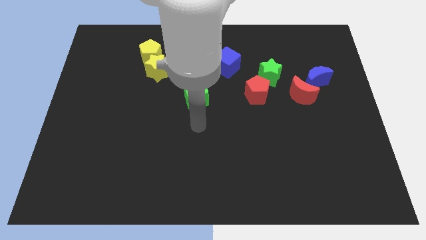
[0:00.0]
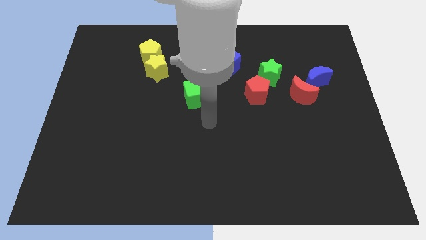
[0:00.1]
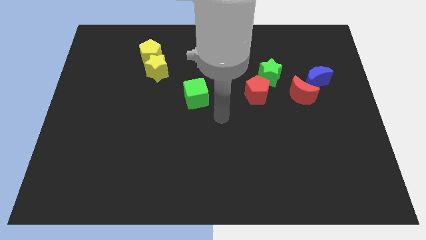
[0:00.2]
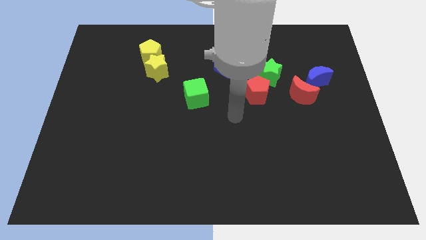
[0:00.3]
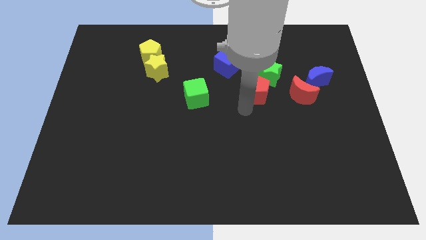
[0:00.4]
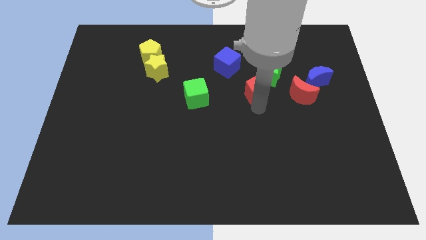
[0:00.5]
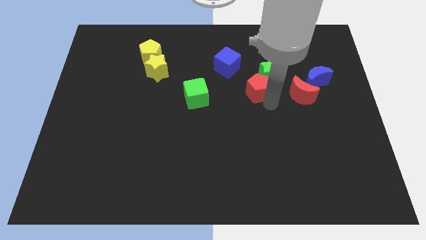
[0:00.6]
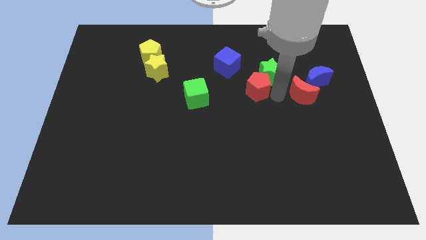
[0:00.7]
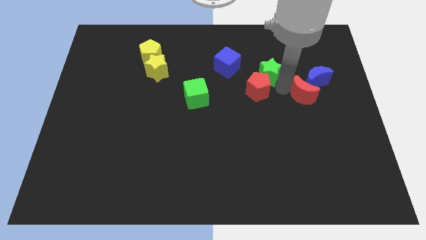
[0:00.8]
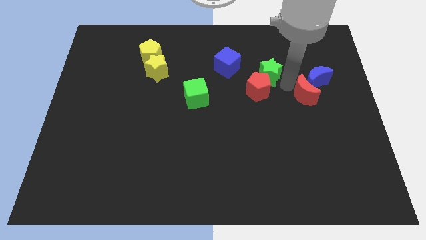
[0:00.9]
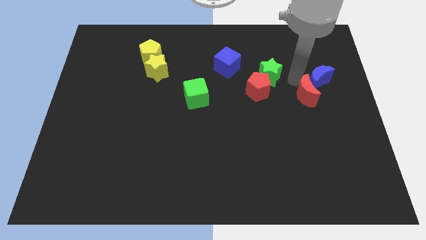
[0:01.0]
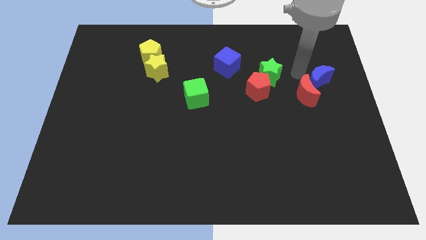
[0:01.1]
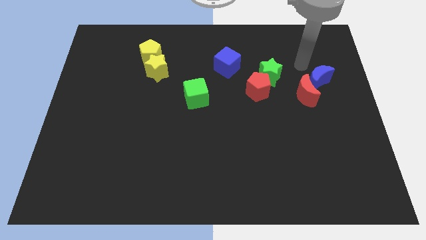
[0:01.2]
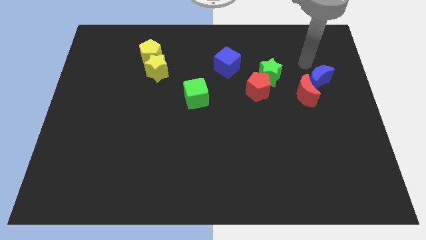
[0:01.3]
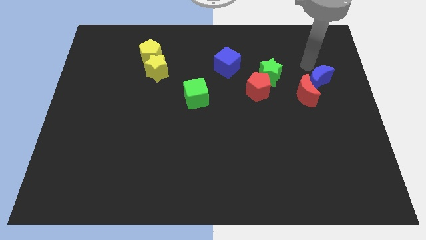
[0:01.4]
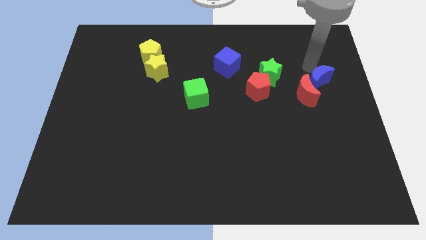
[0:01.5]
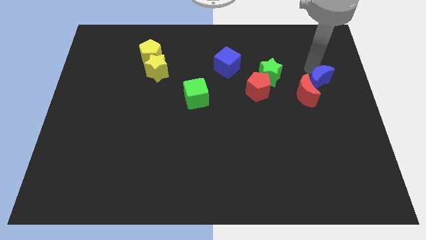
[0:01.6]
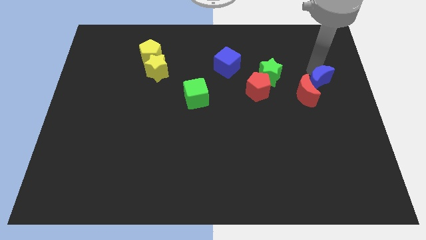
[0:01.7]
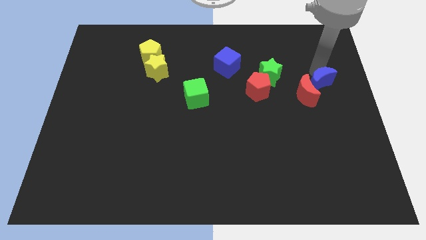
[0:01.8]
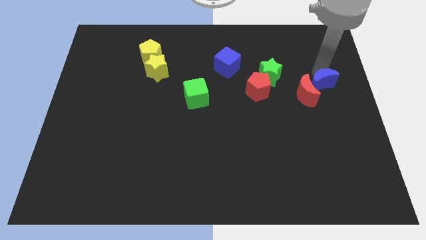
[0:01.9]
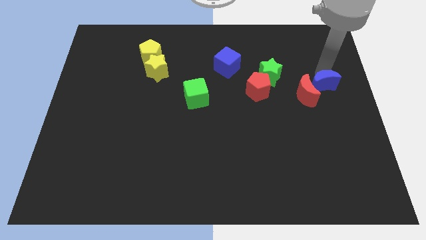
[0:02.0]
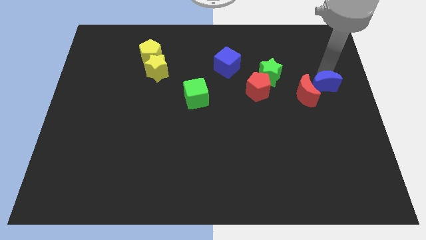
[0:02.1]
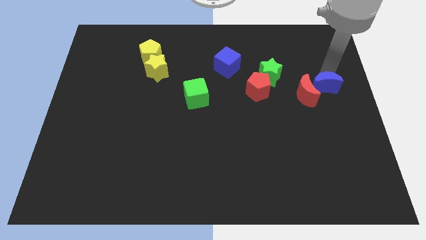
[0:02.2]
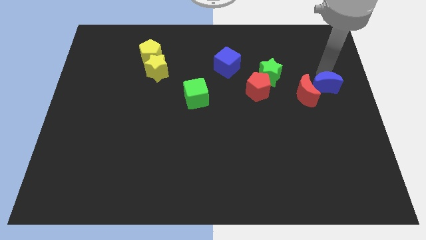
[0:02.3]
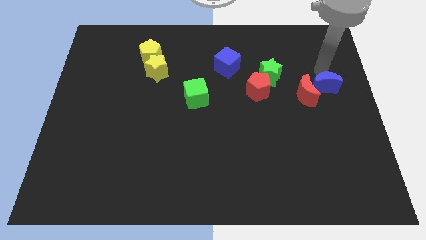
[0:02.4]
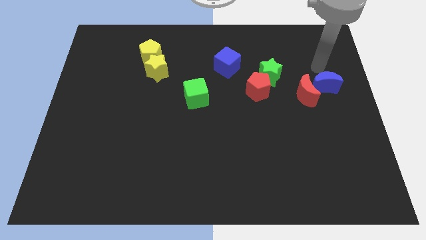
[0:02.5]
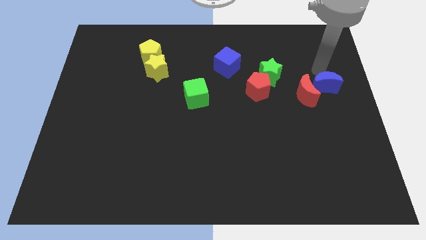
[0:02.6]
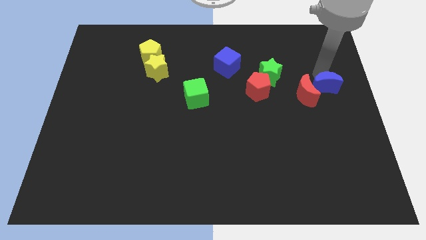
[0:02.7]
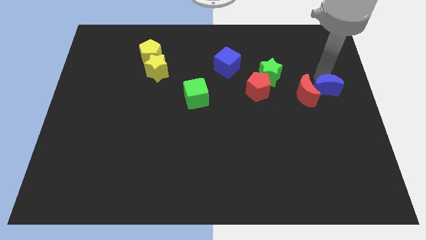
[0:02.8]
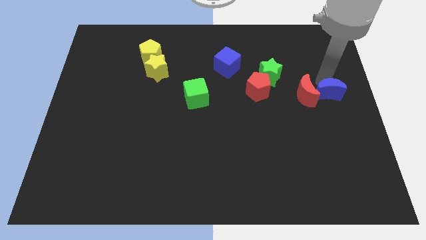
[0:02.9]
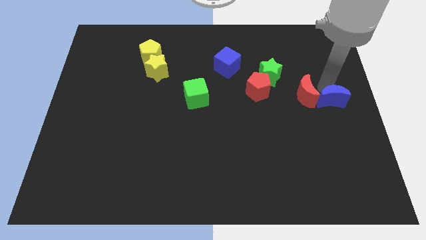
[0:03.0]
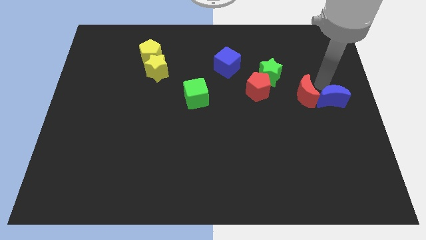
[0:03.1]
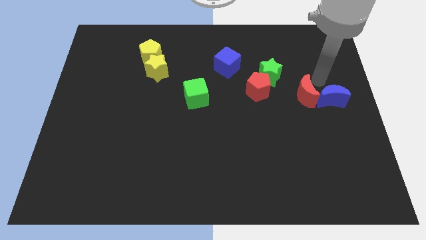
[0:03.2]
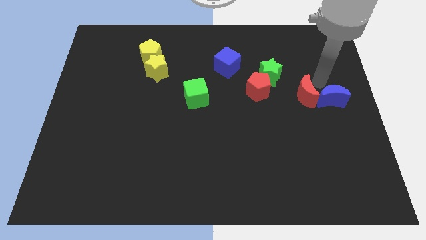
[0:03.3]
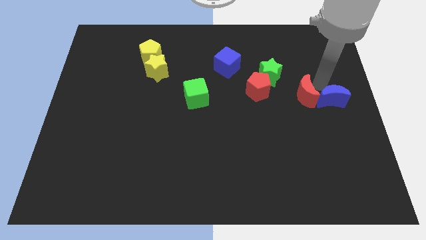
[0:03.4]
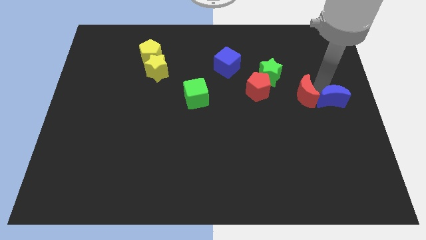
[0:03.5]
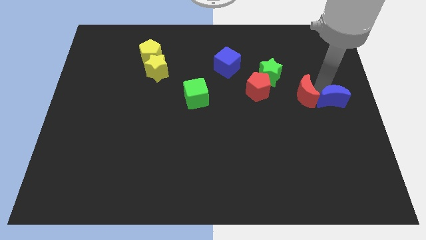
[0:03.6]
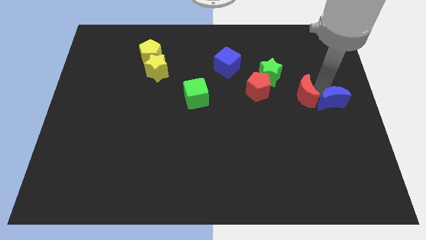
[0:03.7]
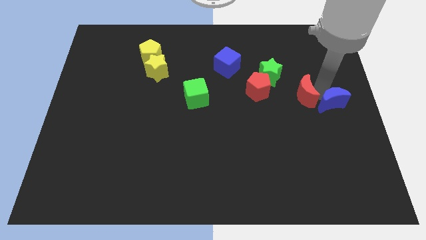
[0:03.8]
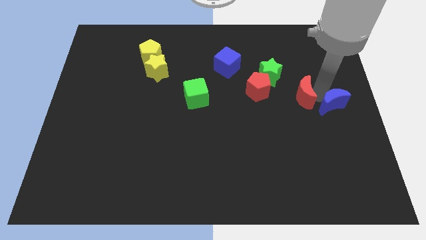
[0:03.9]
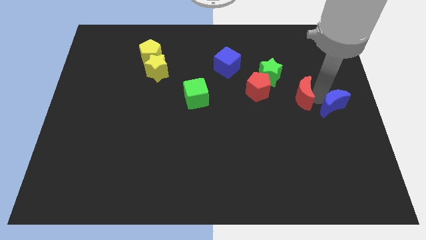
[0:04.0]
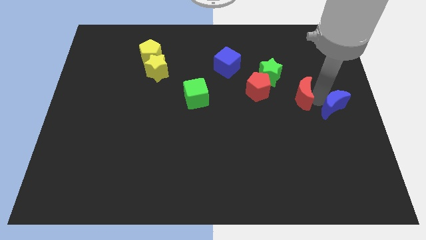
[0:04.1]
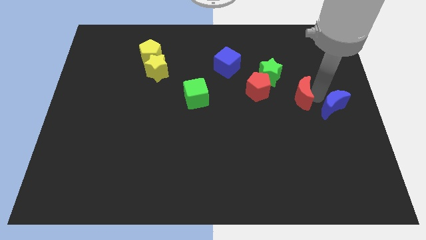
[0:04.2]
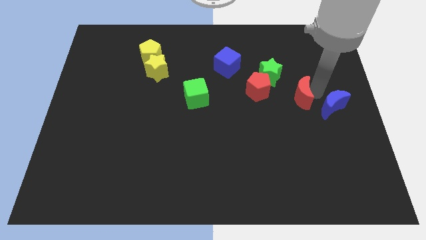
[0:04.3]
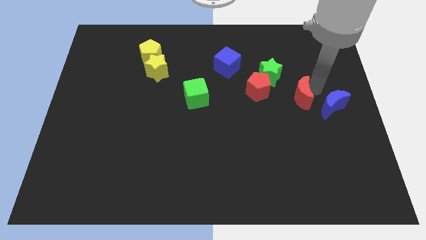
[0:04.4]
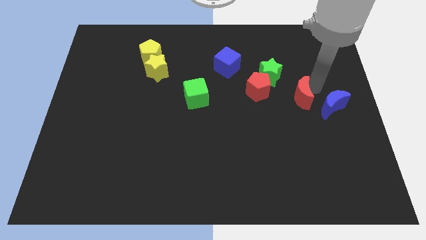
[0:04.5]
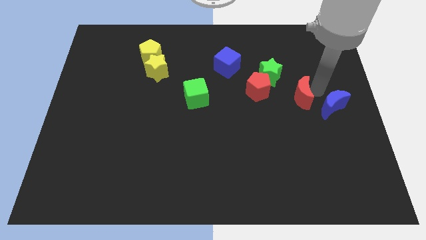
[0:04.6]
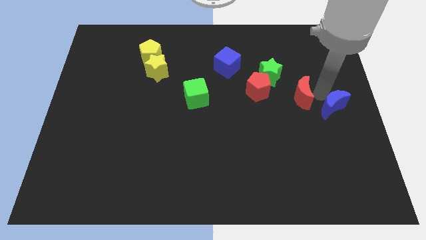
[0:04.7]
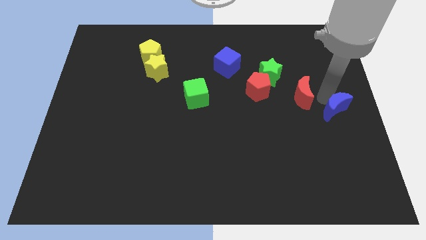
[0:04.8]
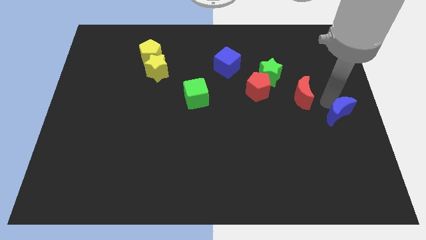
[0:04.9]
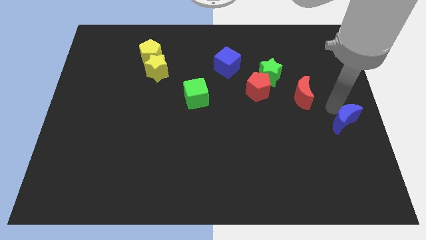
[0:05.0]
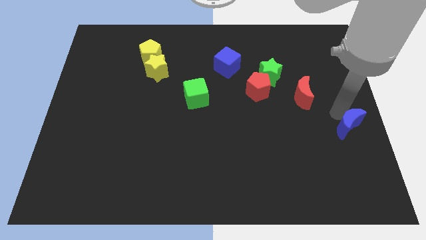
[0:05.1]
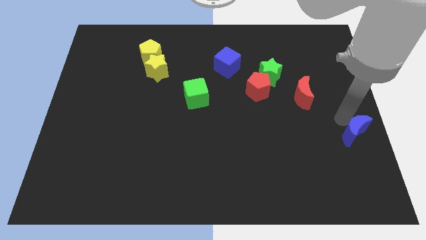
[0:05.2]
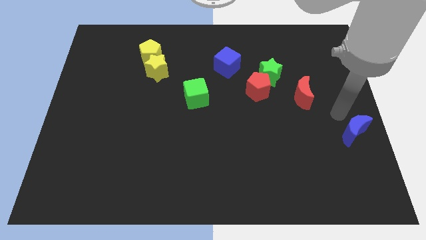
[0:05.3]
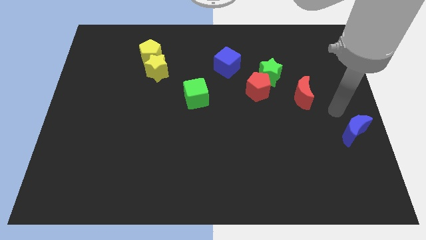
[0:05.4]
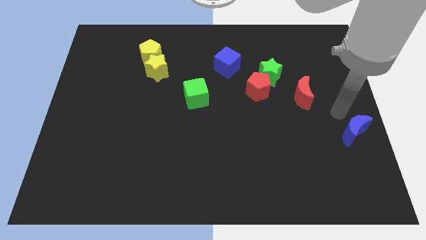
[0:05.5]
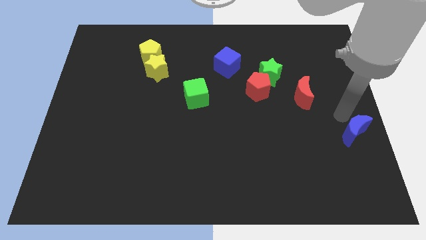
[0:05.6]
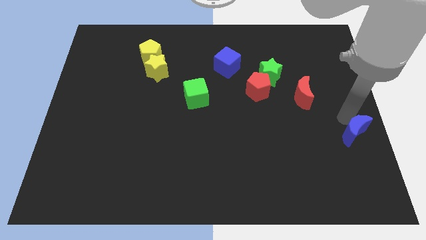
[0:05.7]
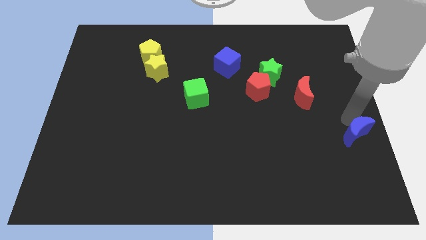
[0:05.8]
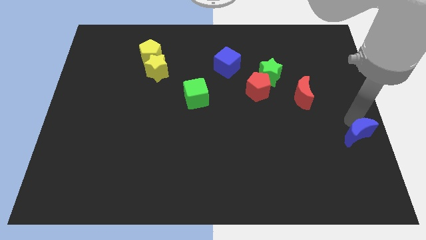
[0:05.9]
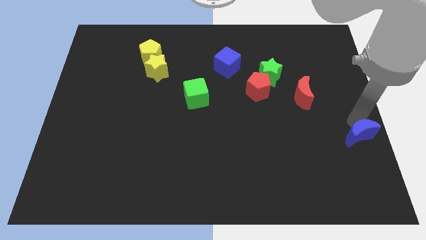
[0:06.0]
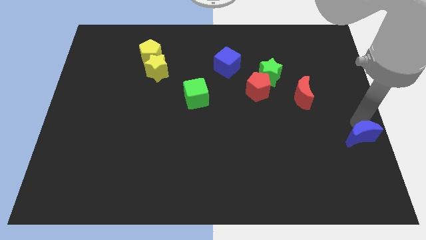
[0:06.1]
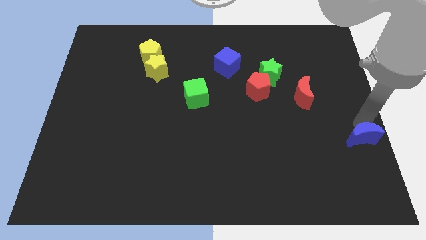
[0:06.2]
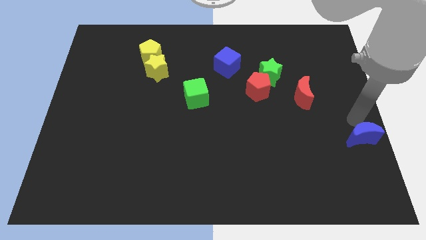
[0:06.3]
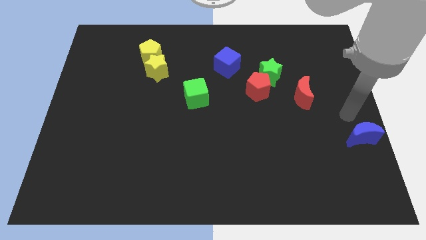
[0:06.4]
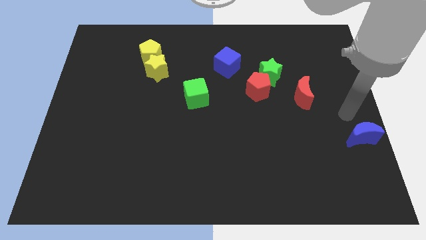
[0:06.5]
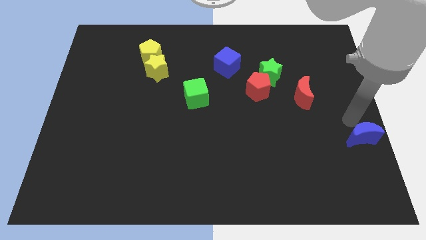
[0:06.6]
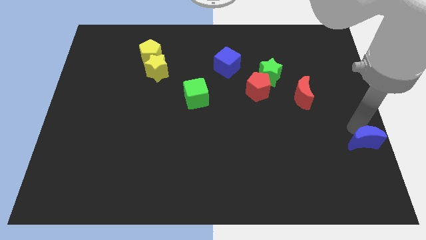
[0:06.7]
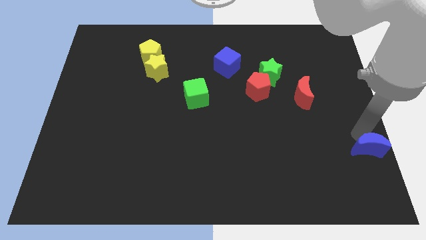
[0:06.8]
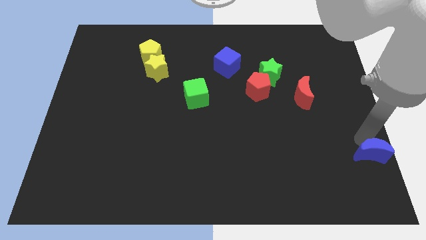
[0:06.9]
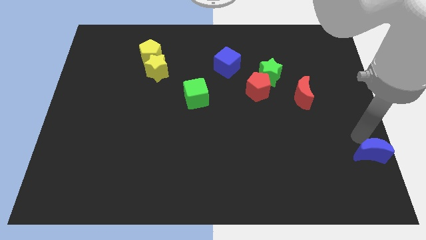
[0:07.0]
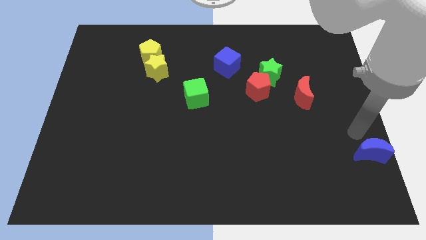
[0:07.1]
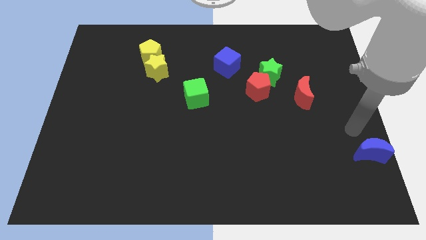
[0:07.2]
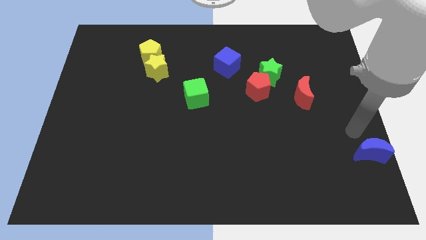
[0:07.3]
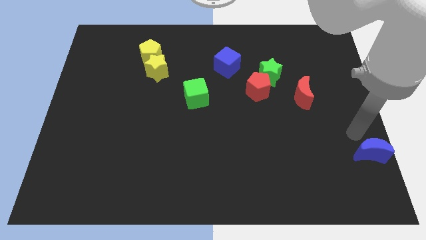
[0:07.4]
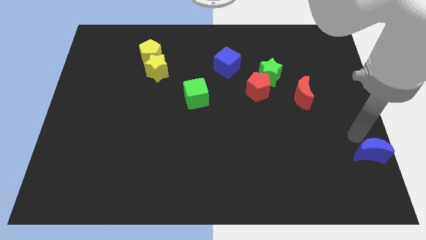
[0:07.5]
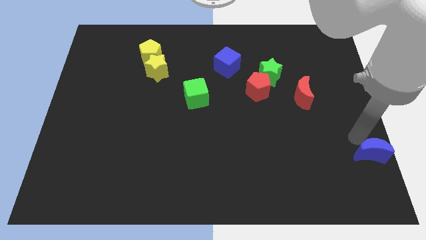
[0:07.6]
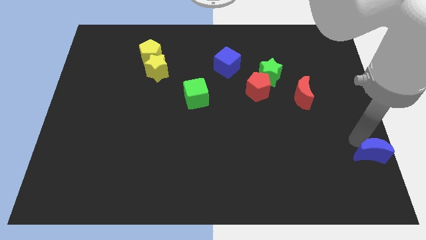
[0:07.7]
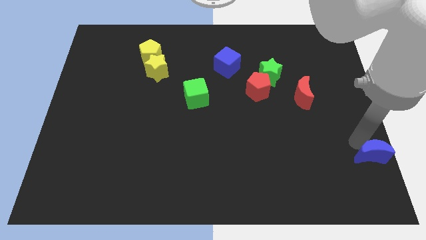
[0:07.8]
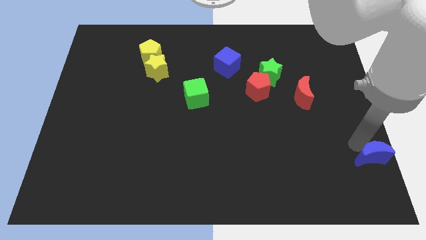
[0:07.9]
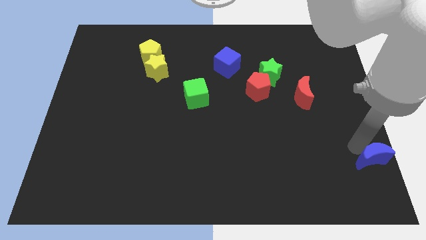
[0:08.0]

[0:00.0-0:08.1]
move the blue moon to the bottom right corner
